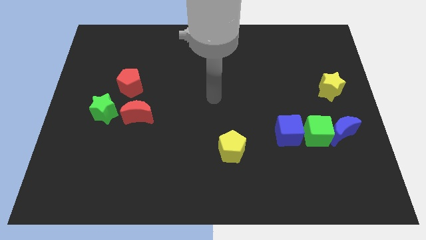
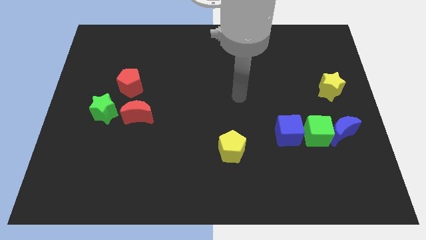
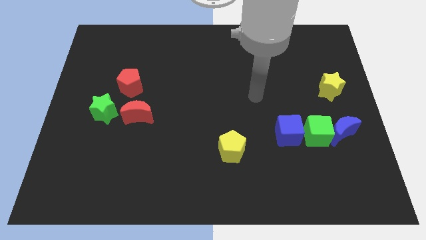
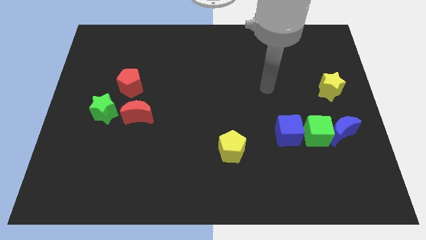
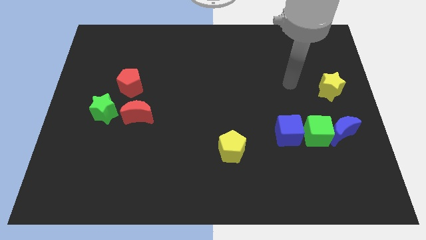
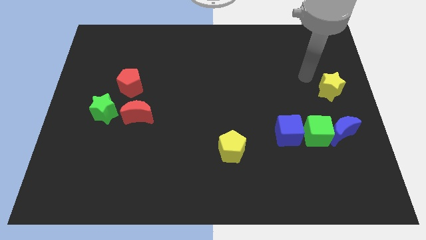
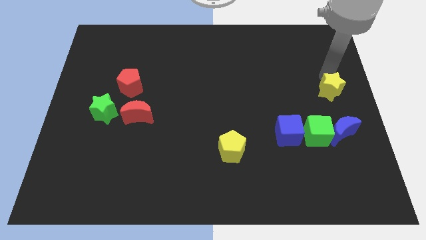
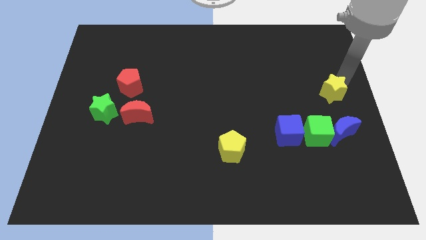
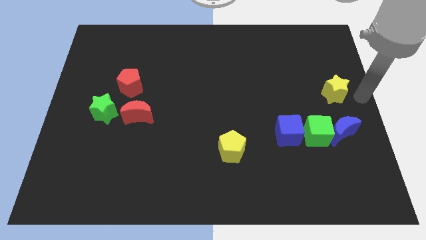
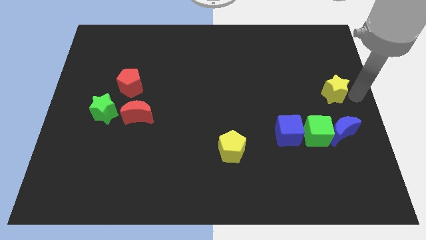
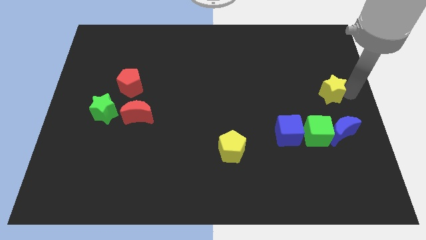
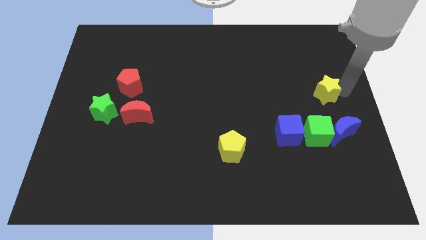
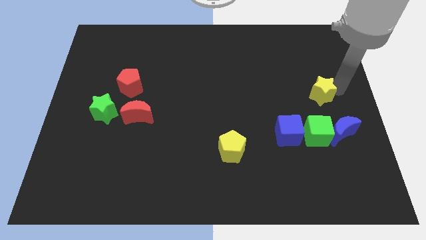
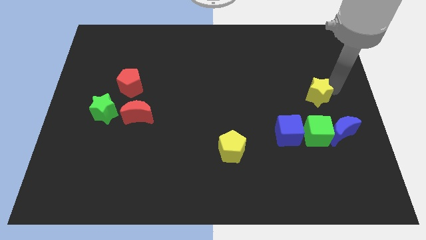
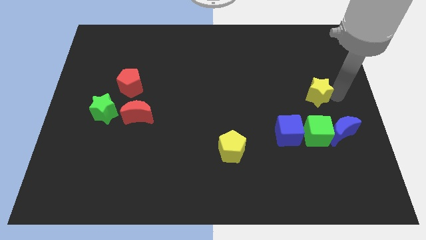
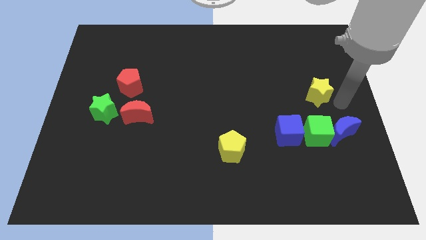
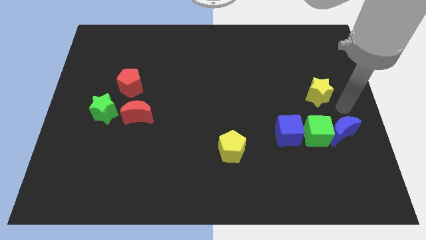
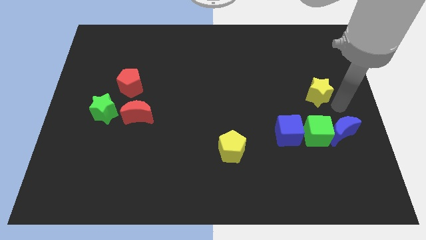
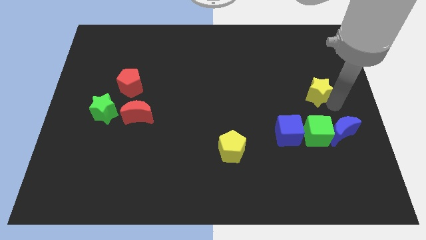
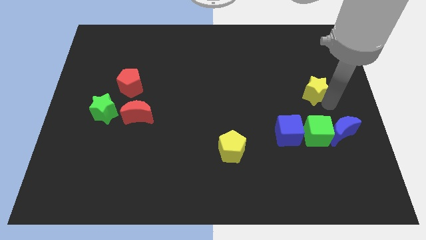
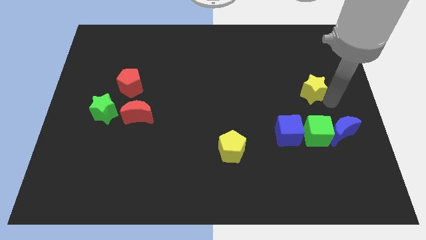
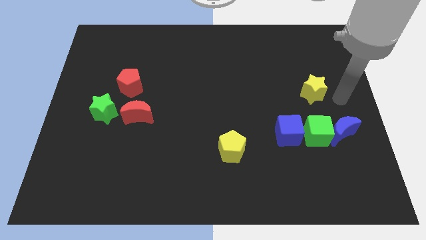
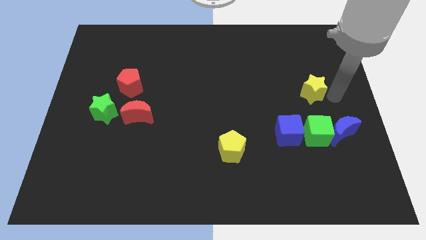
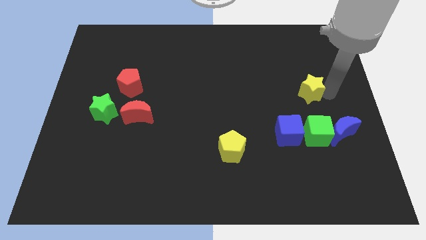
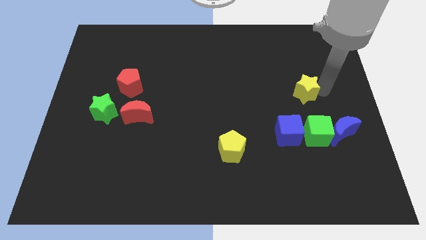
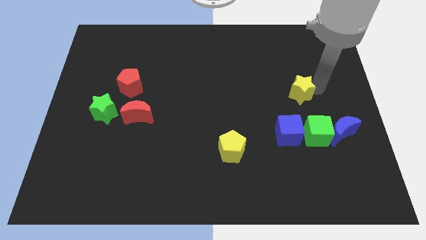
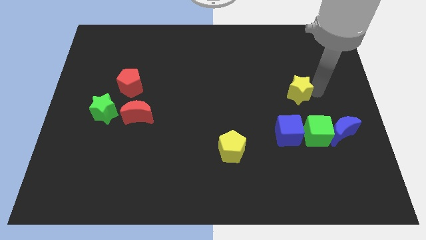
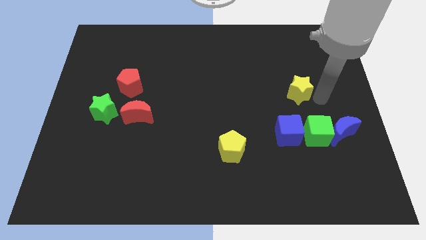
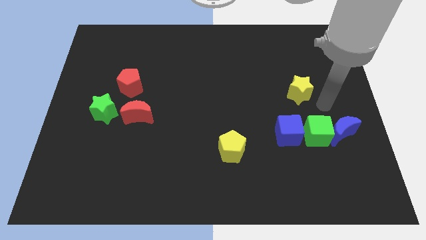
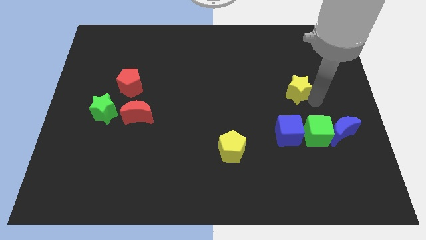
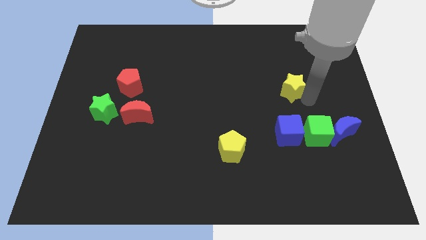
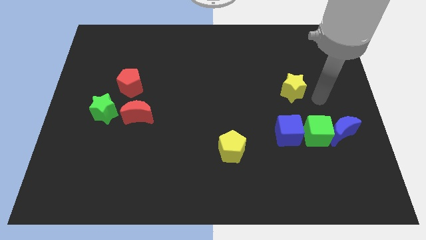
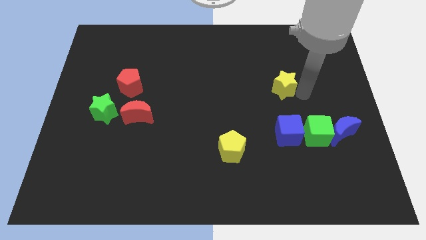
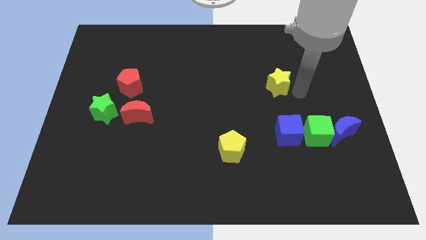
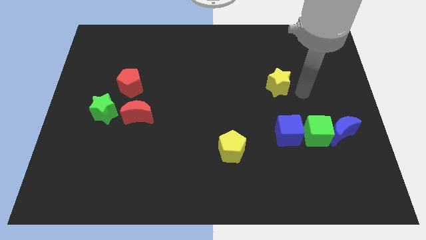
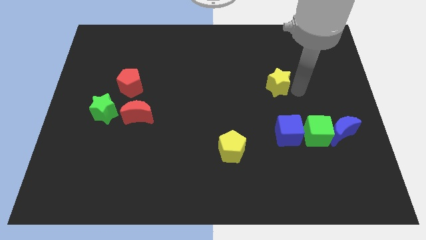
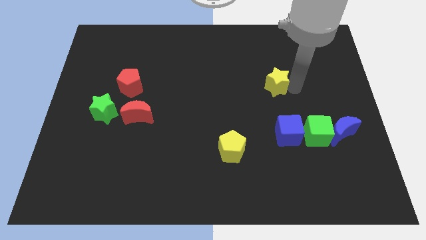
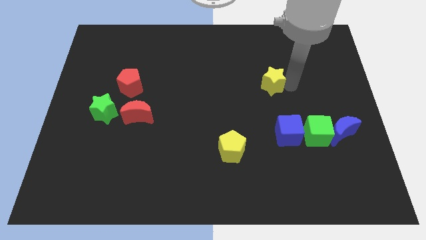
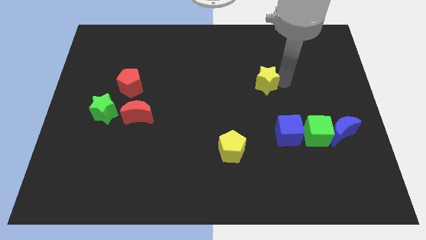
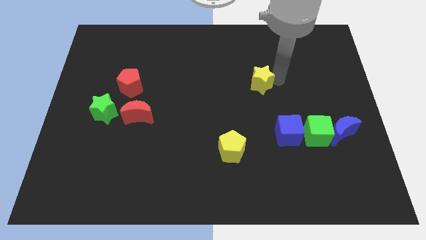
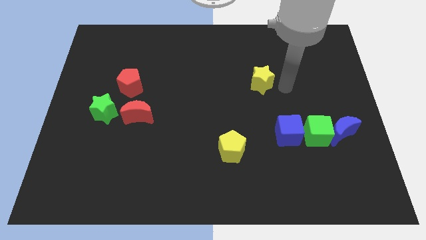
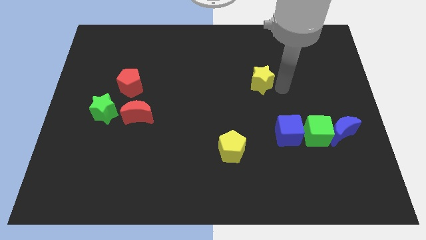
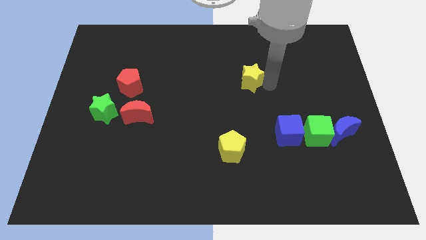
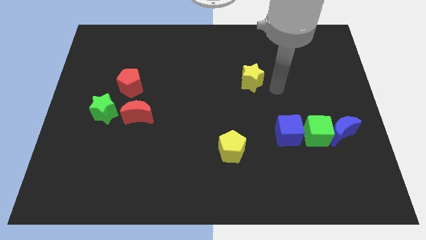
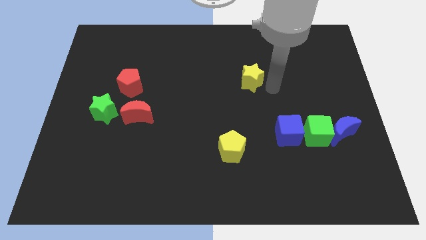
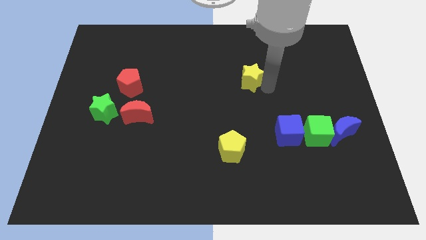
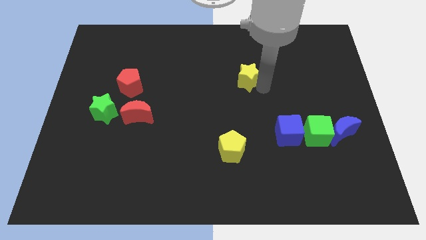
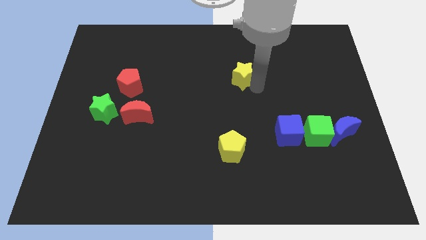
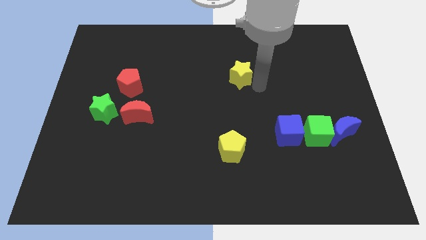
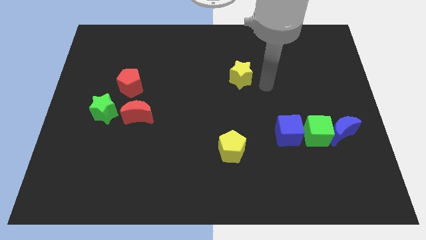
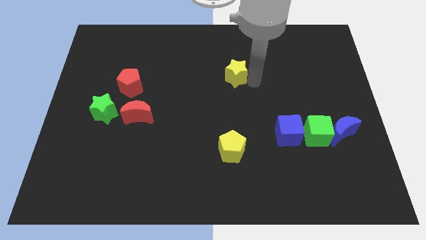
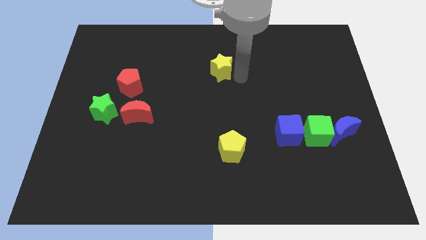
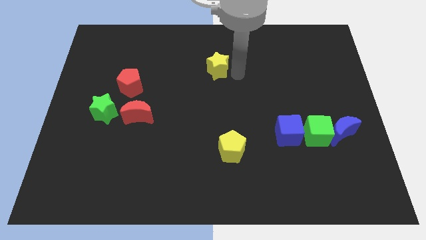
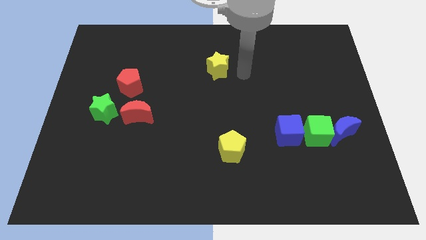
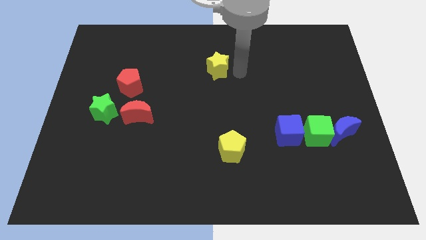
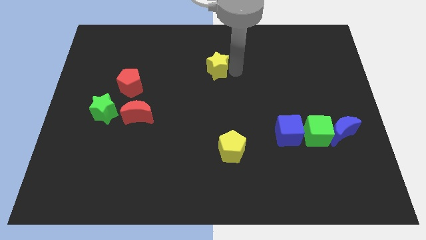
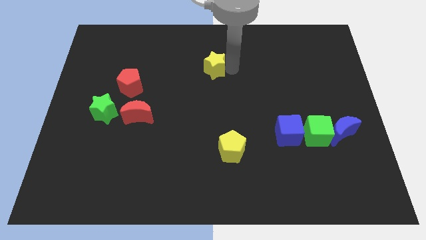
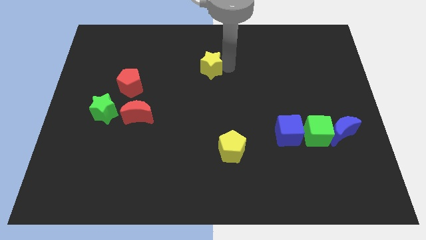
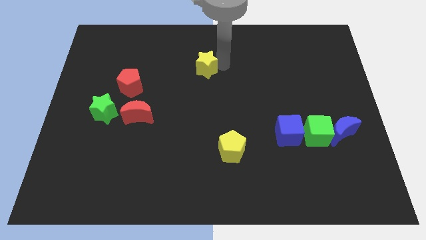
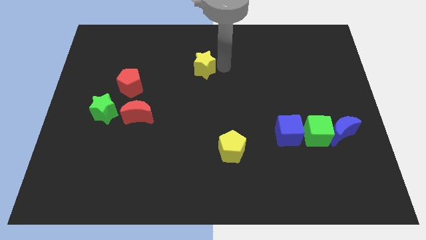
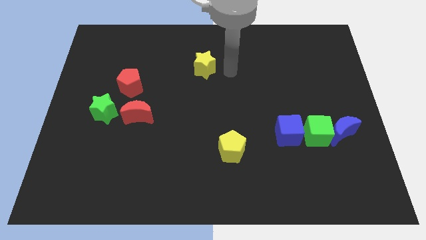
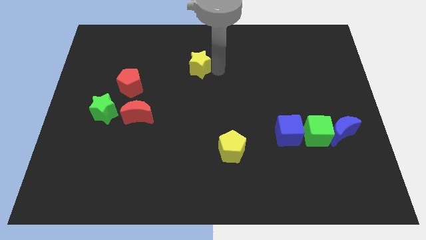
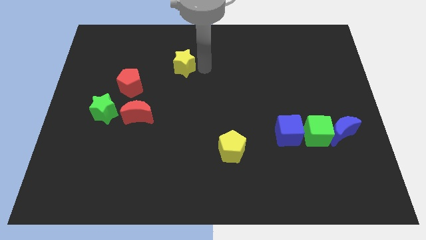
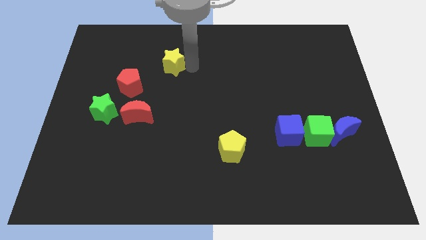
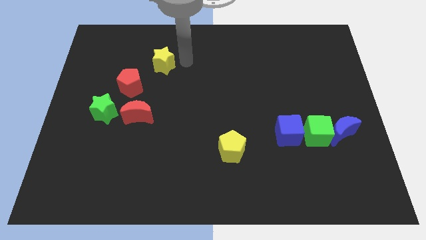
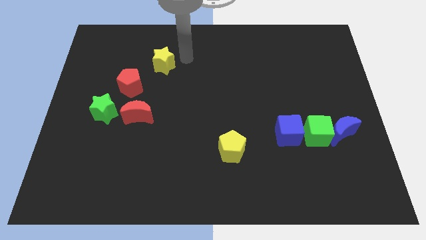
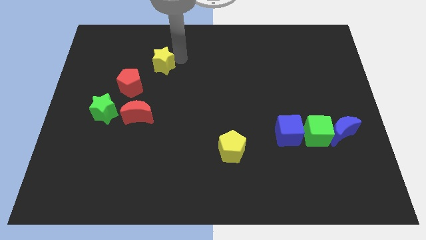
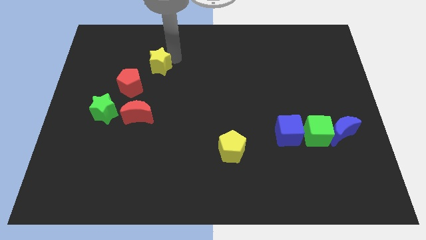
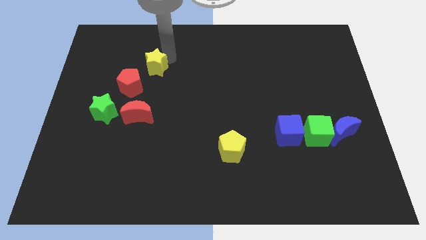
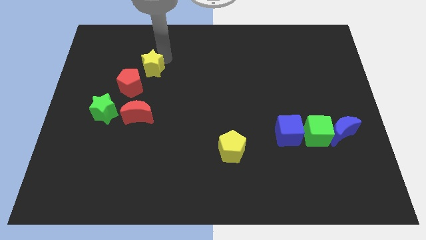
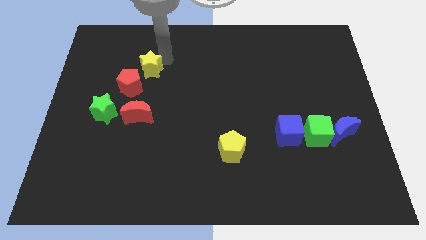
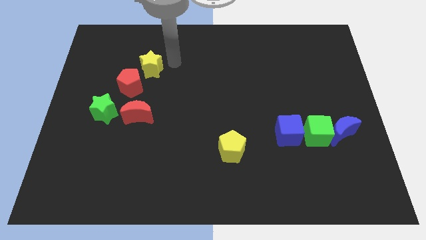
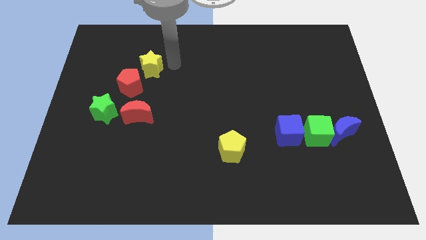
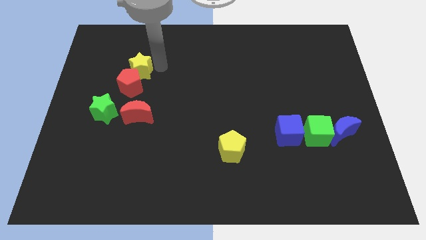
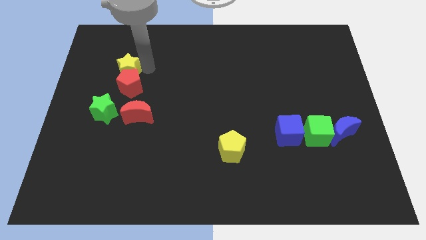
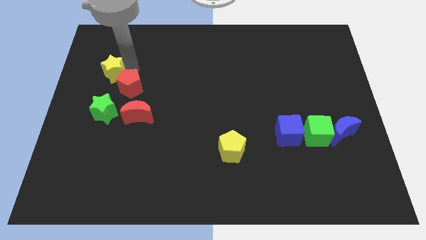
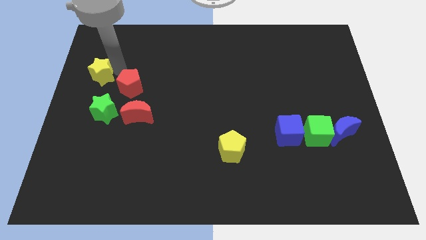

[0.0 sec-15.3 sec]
put the yellow star to the left side
